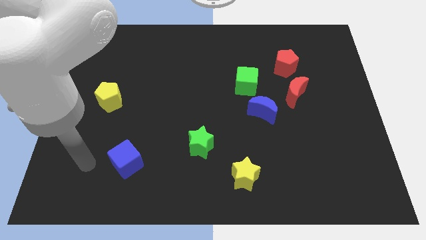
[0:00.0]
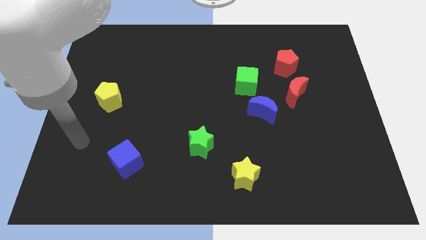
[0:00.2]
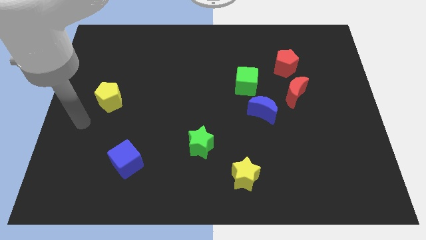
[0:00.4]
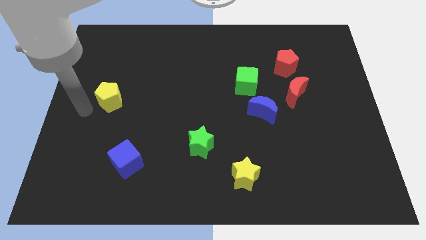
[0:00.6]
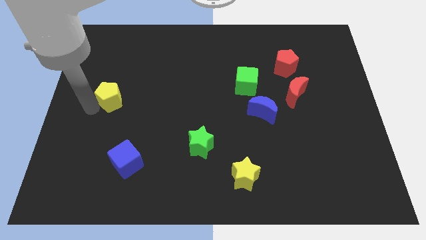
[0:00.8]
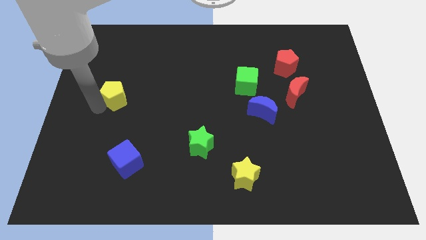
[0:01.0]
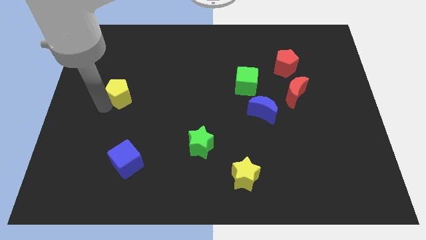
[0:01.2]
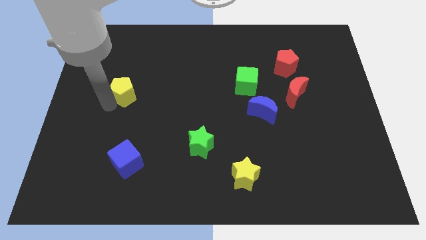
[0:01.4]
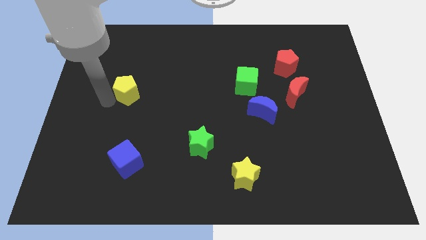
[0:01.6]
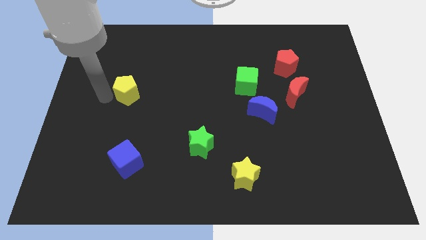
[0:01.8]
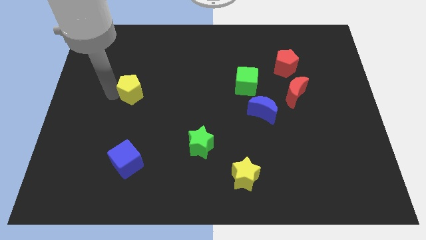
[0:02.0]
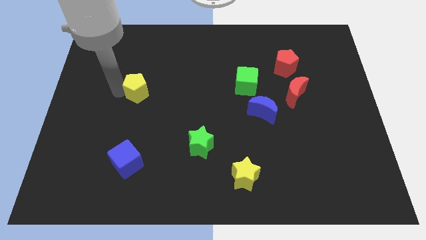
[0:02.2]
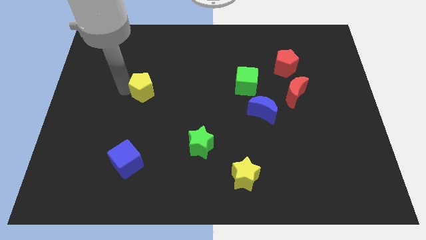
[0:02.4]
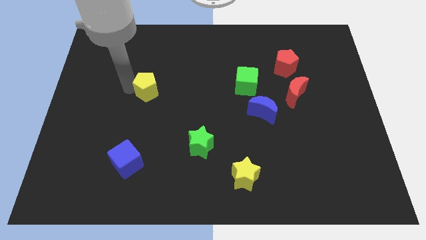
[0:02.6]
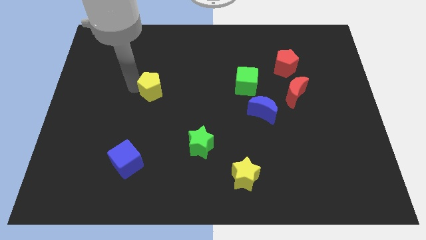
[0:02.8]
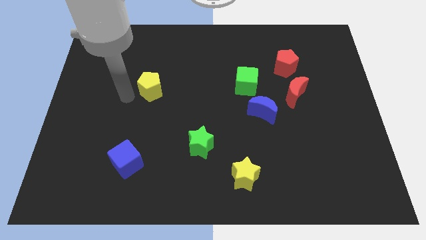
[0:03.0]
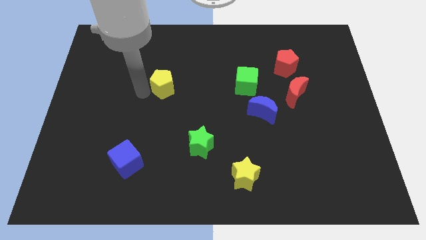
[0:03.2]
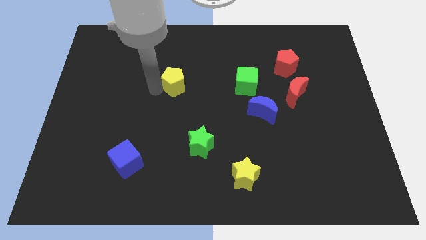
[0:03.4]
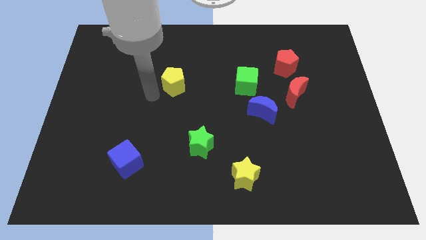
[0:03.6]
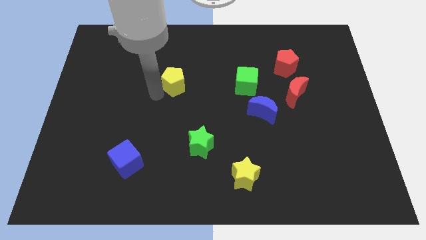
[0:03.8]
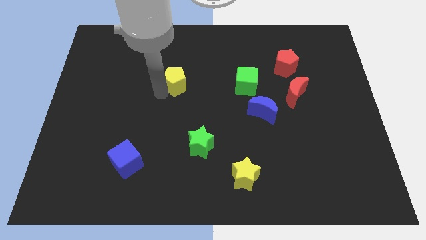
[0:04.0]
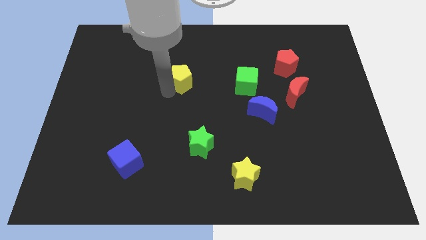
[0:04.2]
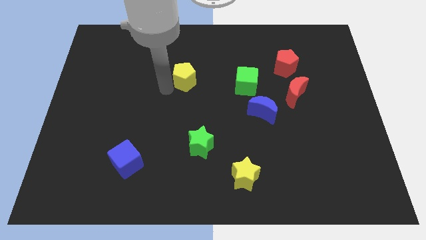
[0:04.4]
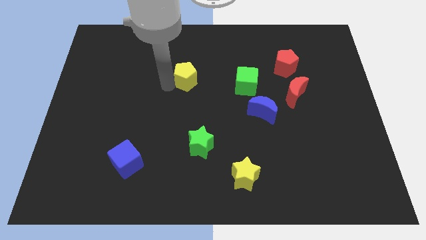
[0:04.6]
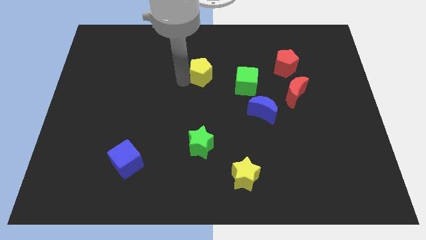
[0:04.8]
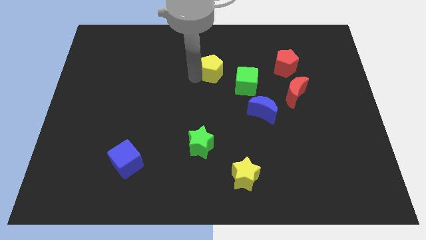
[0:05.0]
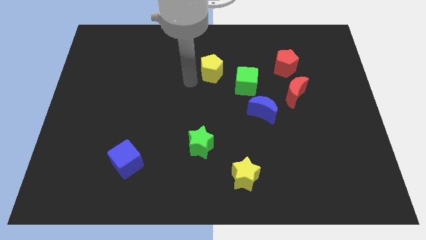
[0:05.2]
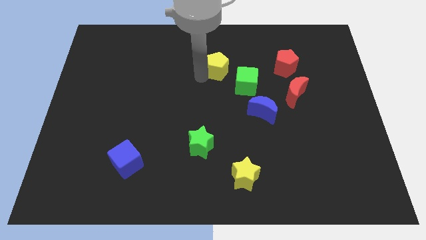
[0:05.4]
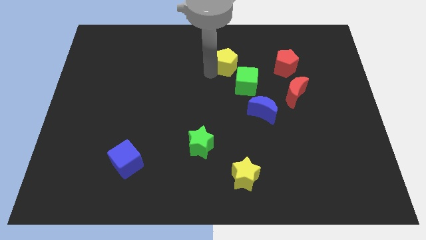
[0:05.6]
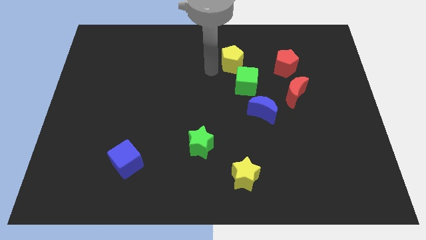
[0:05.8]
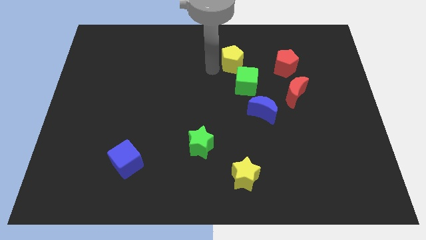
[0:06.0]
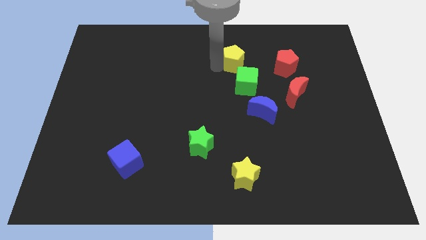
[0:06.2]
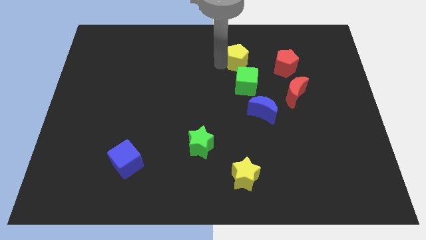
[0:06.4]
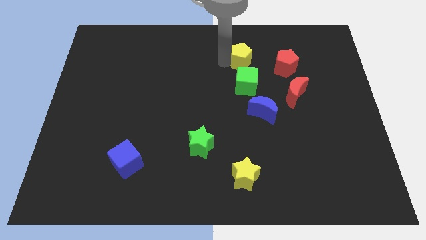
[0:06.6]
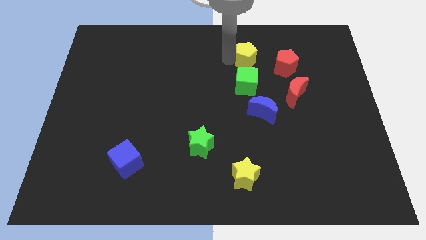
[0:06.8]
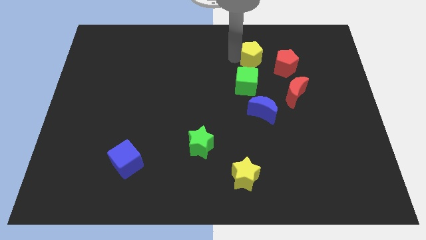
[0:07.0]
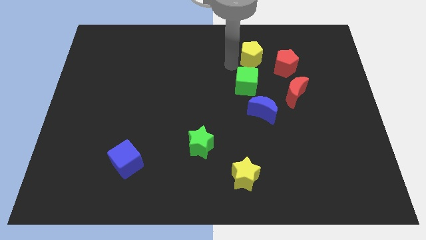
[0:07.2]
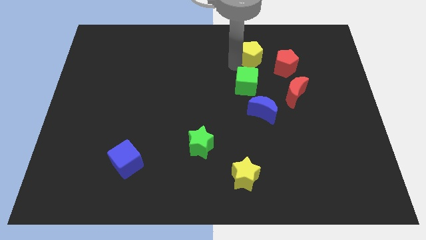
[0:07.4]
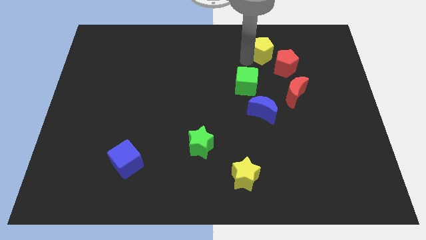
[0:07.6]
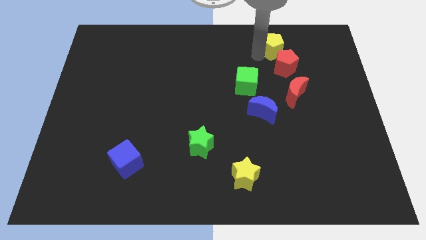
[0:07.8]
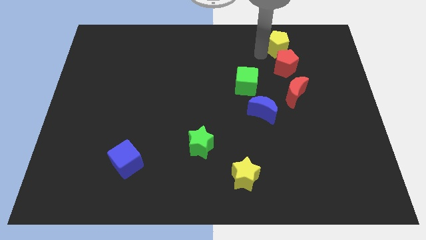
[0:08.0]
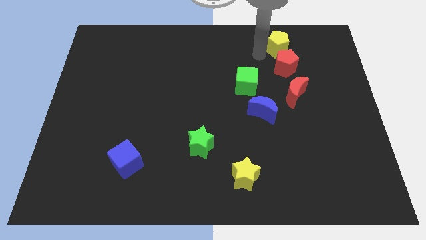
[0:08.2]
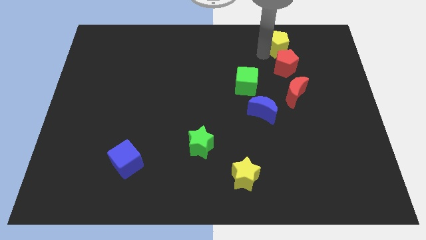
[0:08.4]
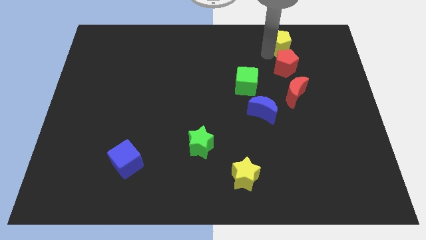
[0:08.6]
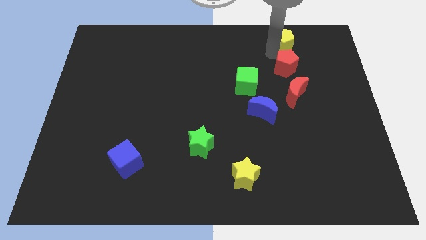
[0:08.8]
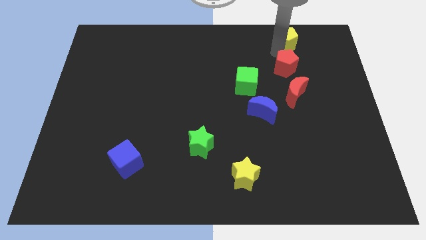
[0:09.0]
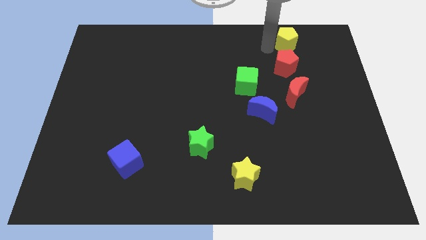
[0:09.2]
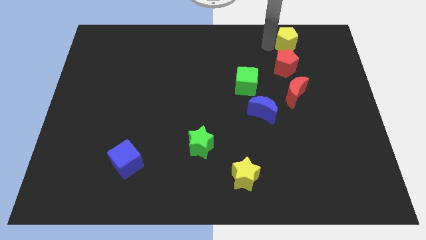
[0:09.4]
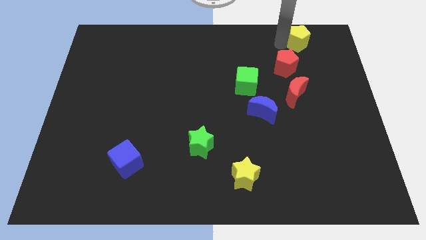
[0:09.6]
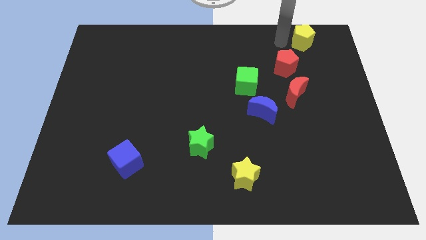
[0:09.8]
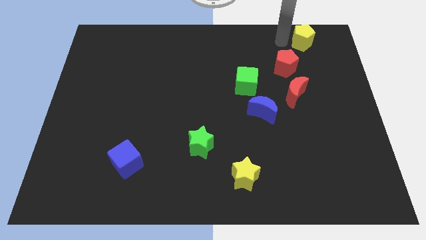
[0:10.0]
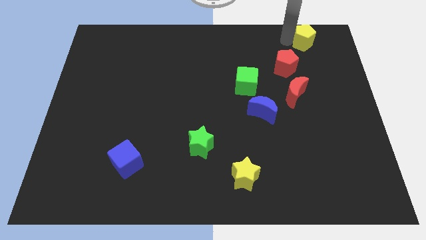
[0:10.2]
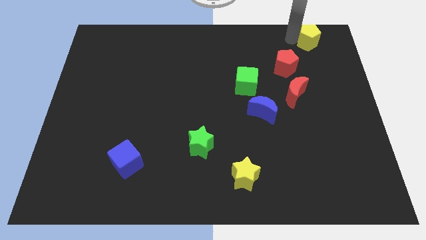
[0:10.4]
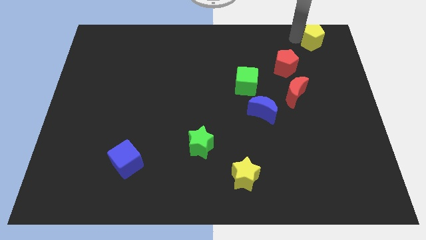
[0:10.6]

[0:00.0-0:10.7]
slide the yellow pentagon to the top right of the board

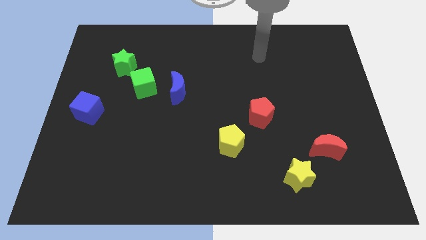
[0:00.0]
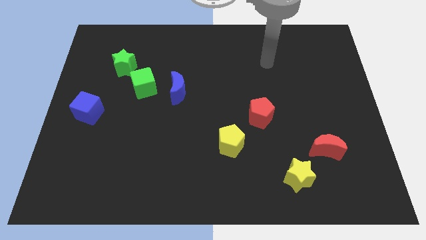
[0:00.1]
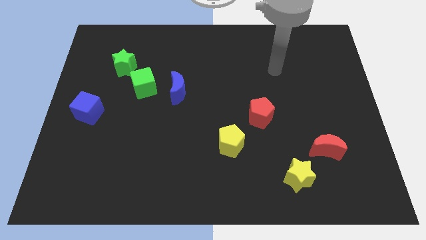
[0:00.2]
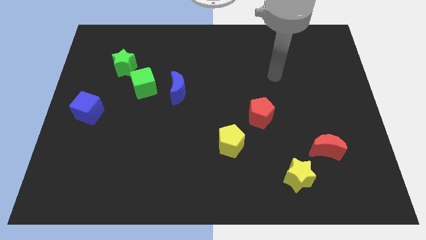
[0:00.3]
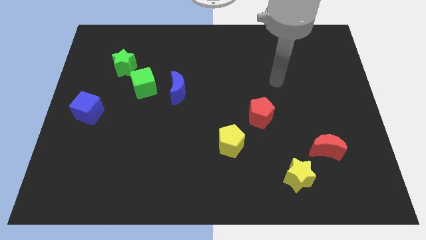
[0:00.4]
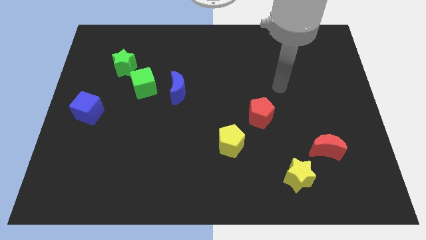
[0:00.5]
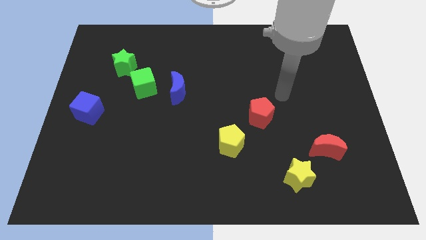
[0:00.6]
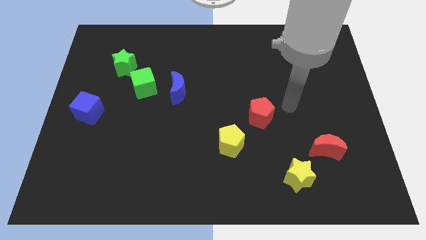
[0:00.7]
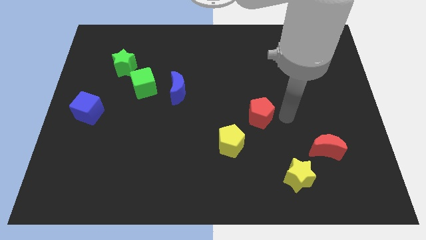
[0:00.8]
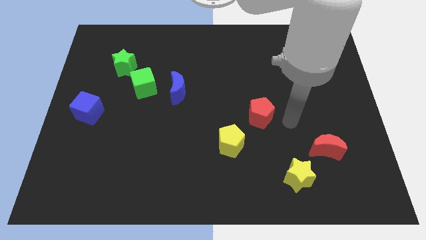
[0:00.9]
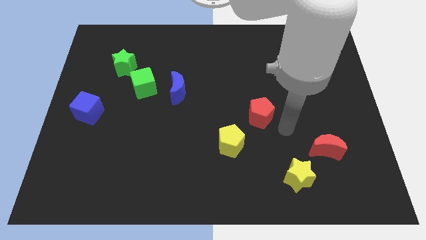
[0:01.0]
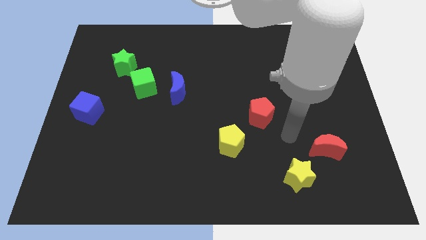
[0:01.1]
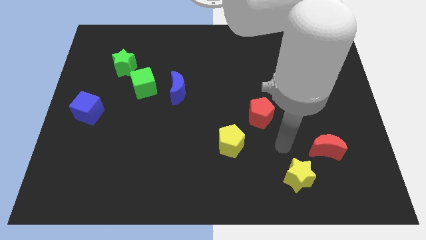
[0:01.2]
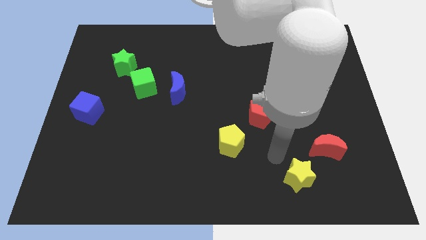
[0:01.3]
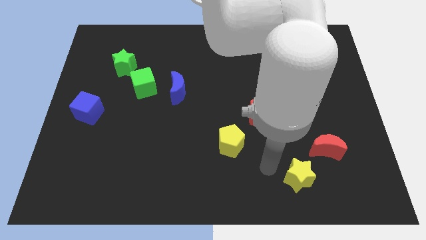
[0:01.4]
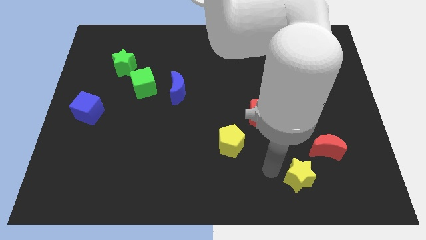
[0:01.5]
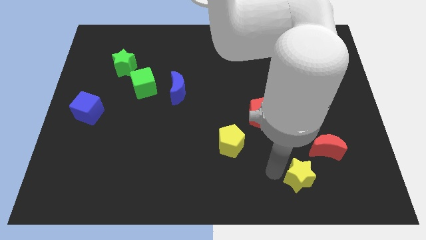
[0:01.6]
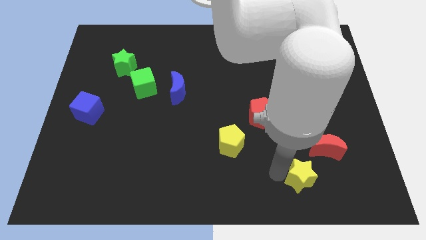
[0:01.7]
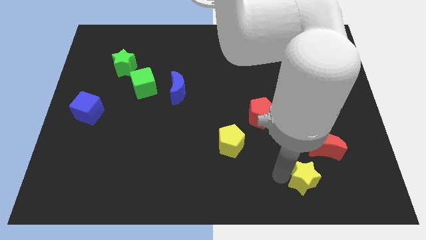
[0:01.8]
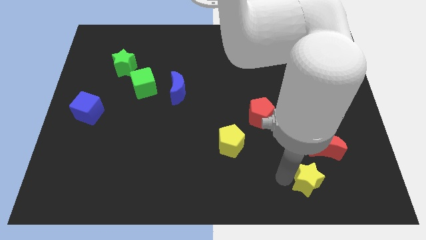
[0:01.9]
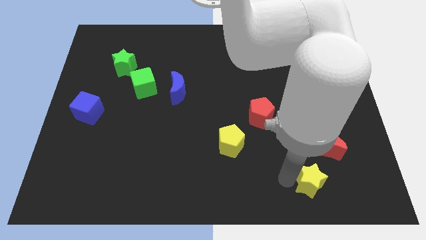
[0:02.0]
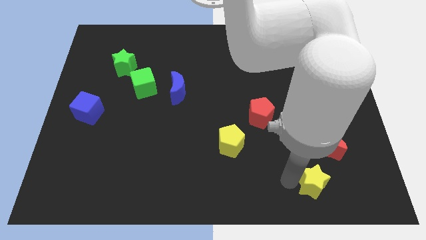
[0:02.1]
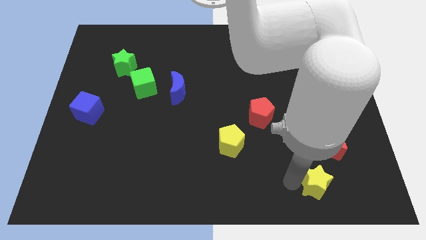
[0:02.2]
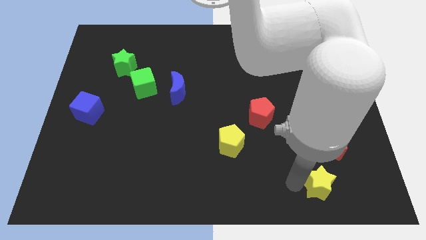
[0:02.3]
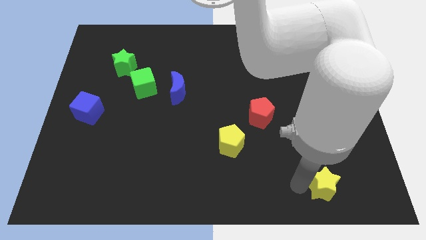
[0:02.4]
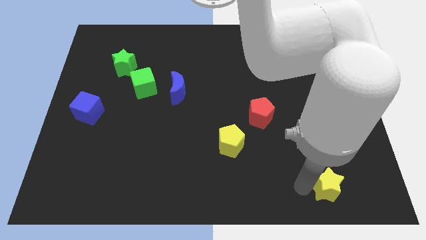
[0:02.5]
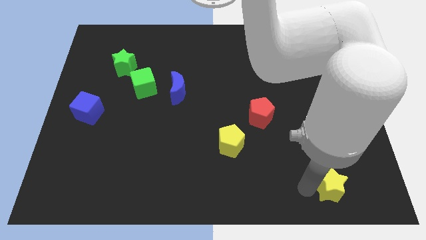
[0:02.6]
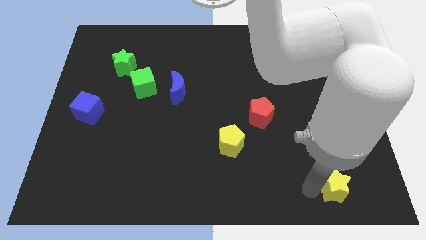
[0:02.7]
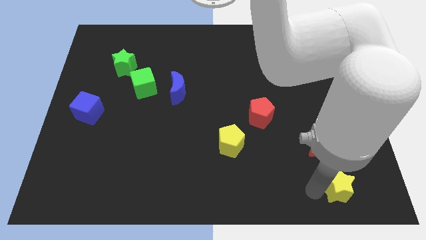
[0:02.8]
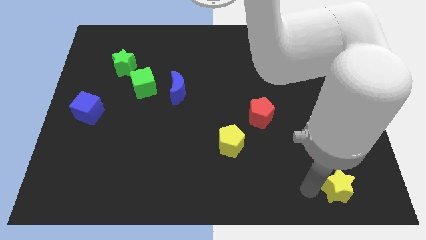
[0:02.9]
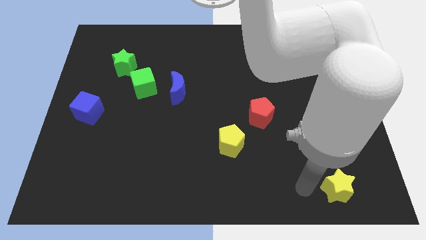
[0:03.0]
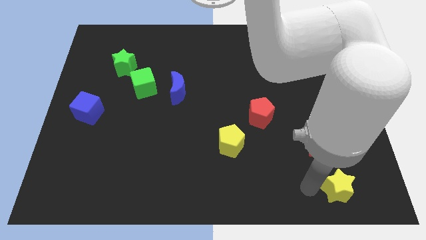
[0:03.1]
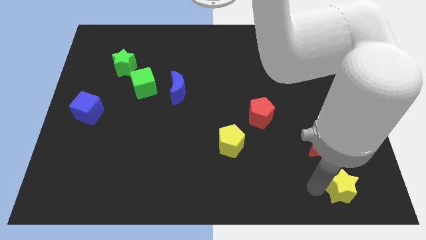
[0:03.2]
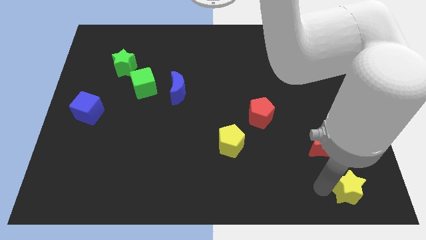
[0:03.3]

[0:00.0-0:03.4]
slide the yellow star to the bottom right corner
